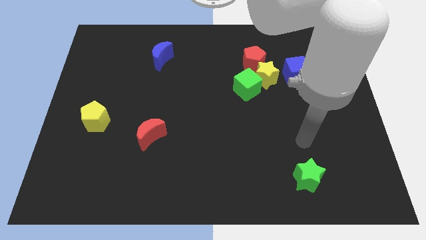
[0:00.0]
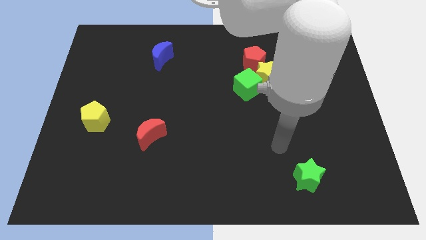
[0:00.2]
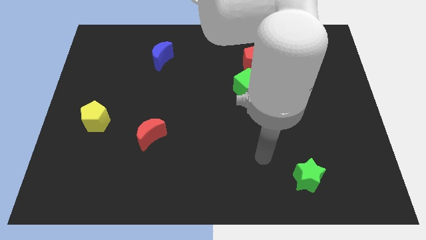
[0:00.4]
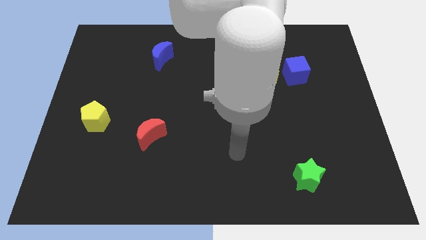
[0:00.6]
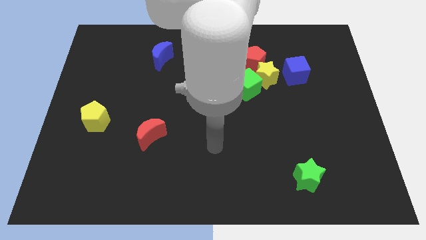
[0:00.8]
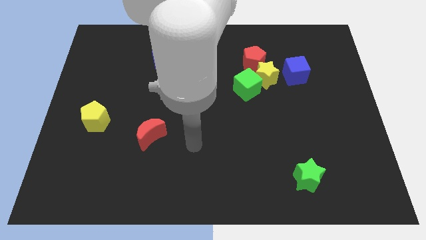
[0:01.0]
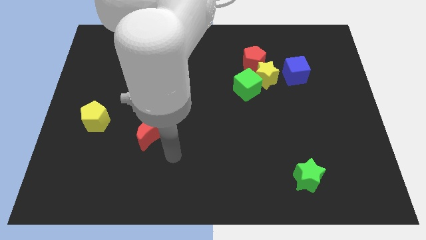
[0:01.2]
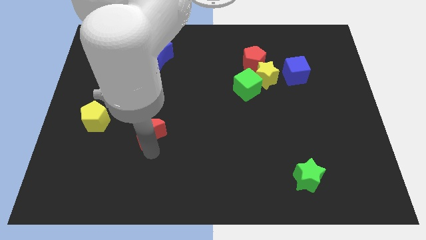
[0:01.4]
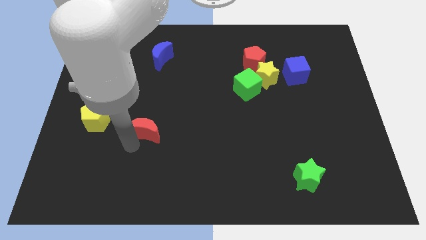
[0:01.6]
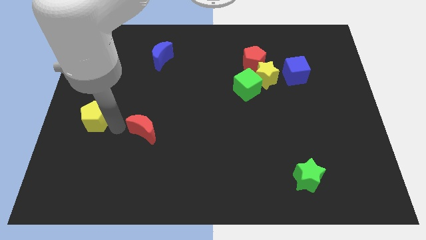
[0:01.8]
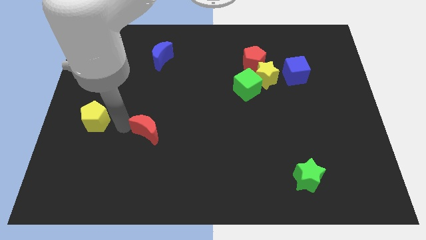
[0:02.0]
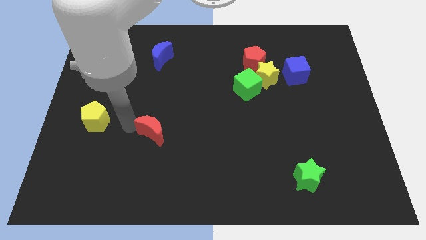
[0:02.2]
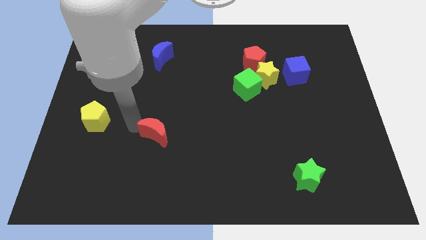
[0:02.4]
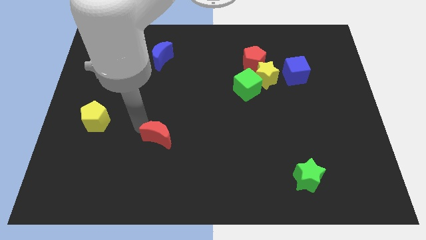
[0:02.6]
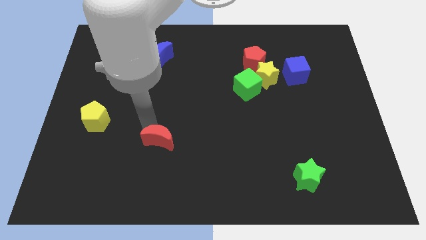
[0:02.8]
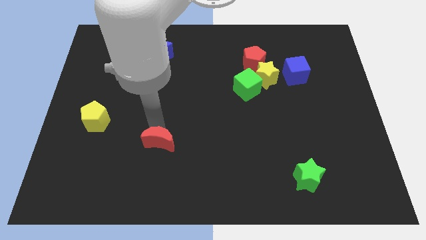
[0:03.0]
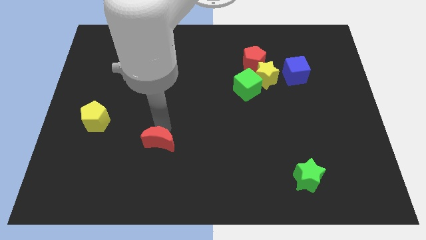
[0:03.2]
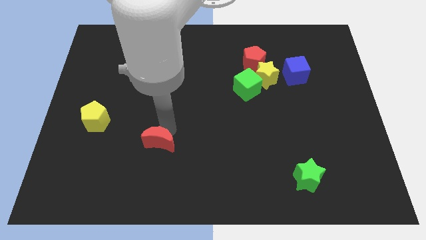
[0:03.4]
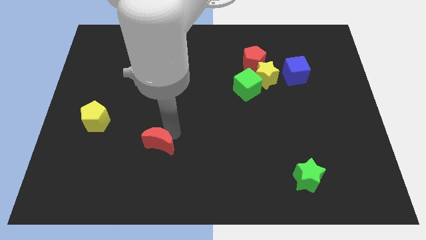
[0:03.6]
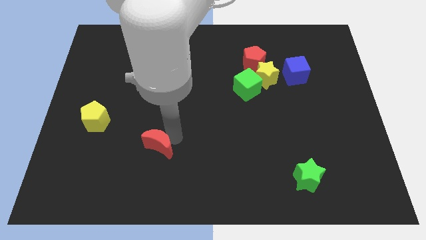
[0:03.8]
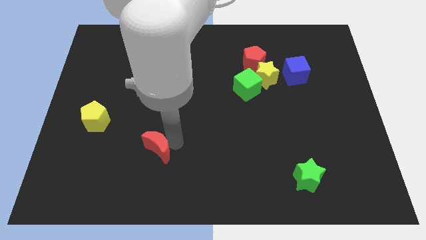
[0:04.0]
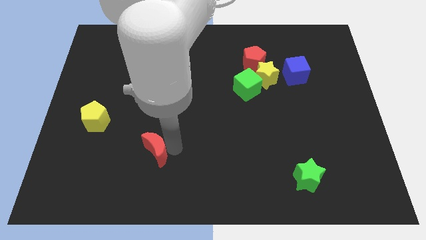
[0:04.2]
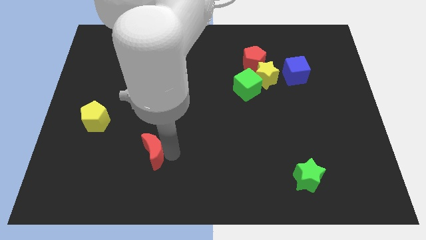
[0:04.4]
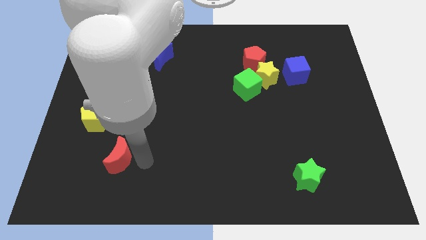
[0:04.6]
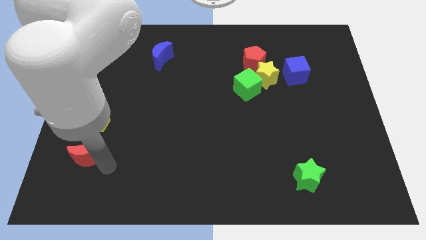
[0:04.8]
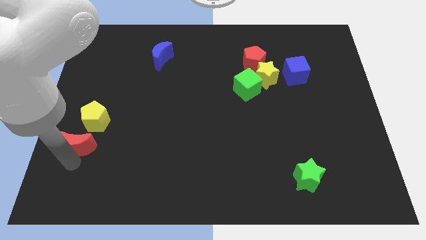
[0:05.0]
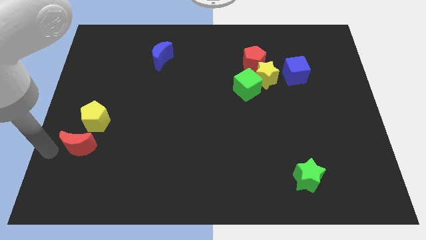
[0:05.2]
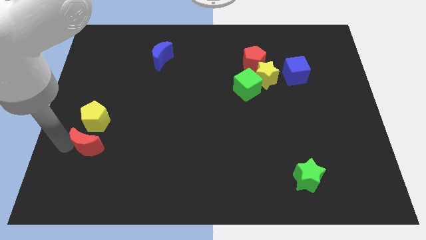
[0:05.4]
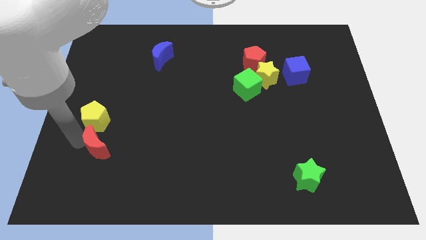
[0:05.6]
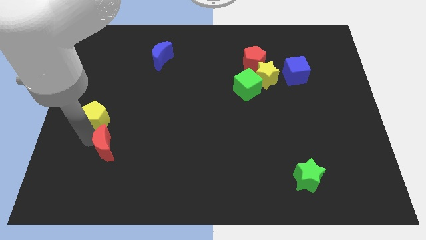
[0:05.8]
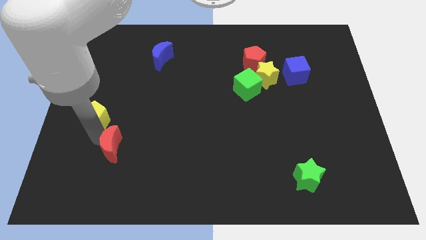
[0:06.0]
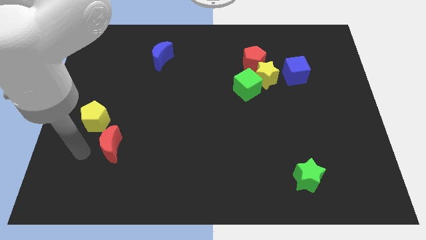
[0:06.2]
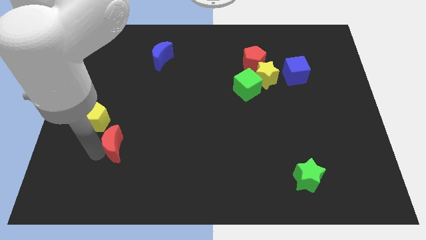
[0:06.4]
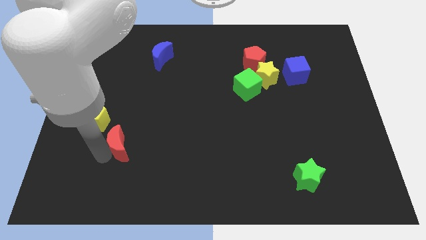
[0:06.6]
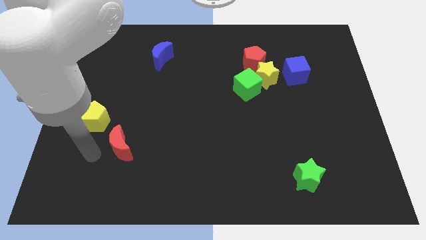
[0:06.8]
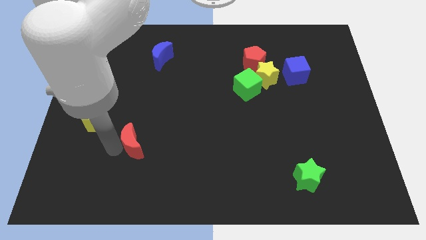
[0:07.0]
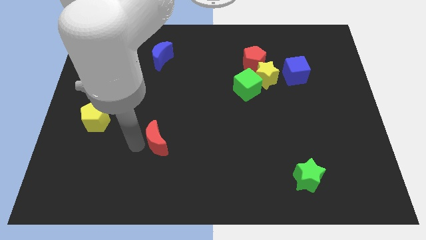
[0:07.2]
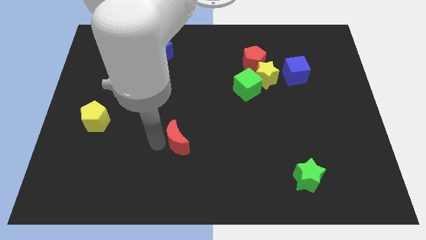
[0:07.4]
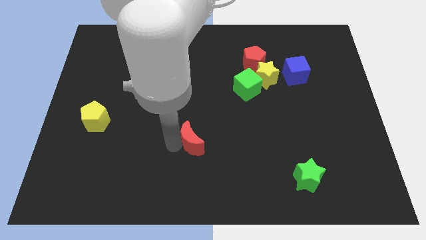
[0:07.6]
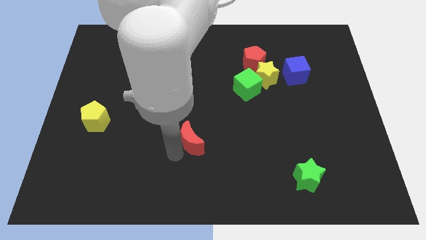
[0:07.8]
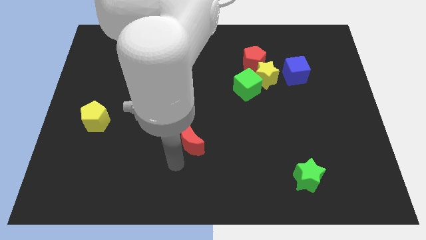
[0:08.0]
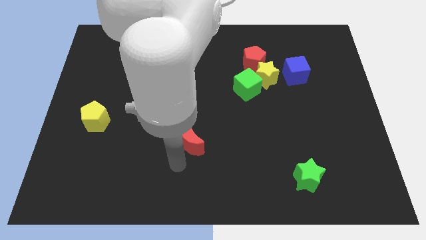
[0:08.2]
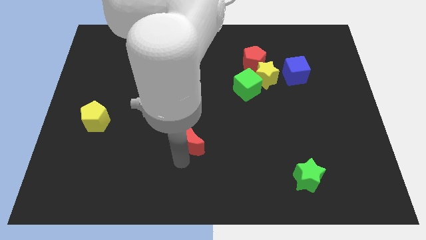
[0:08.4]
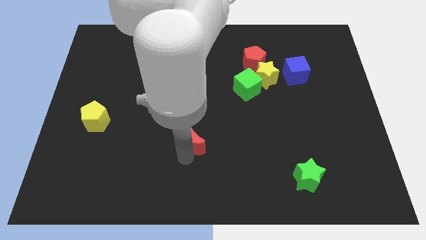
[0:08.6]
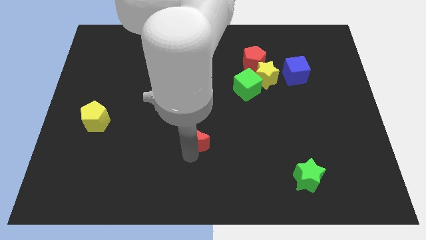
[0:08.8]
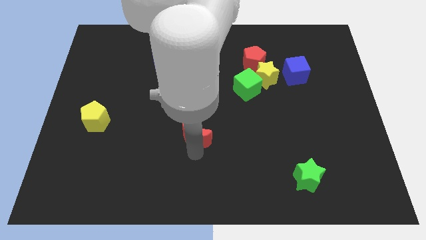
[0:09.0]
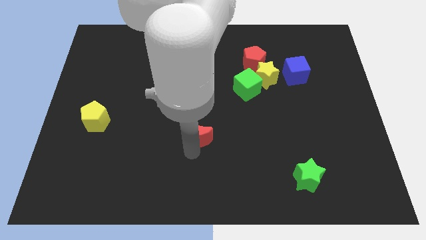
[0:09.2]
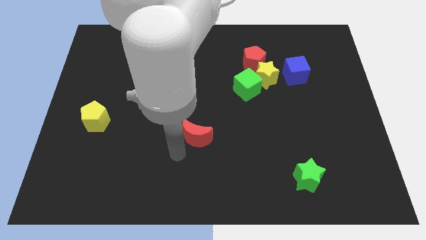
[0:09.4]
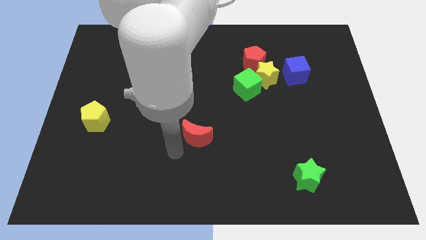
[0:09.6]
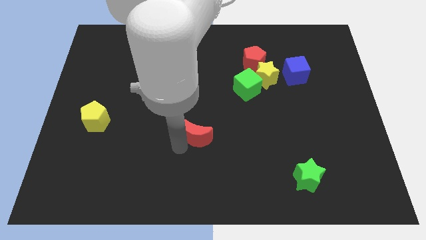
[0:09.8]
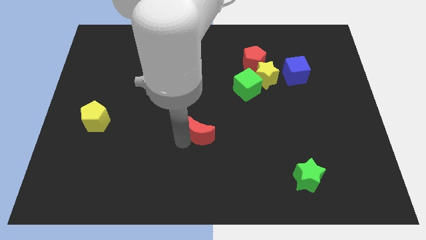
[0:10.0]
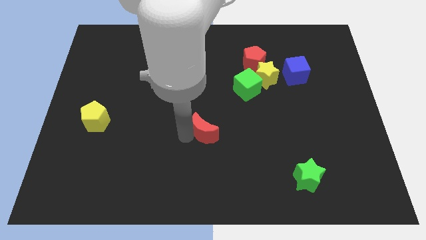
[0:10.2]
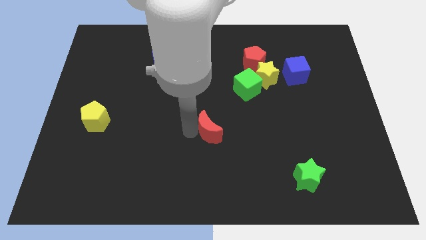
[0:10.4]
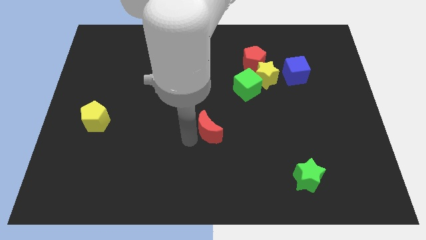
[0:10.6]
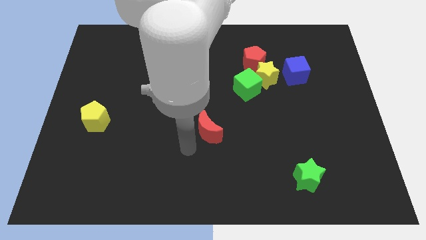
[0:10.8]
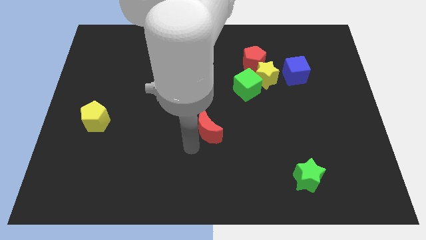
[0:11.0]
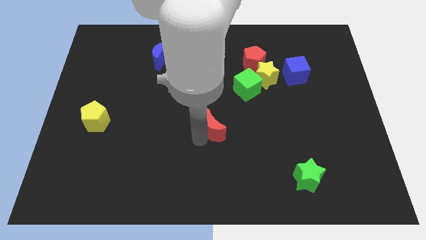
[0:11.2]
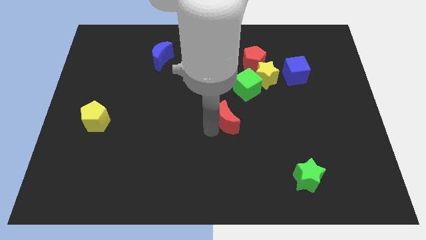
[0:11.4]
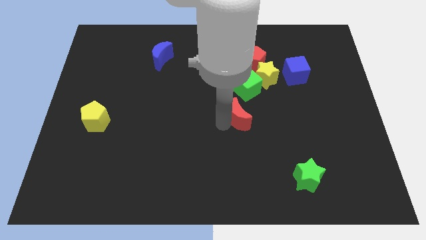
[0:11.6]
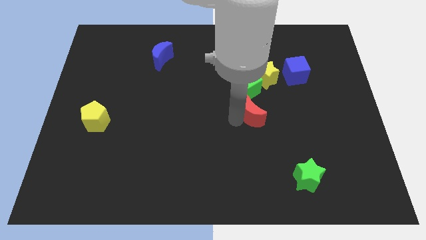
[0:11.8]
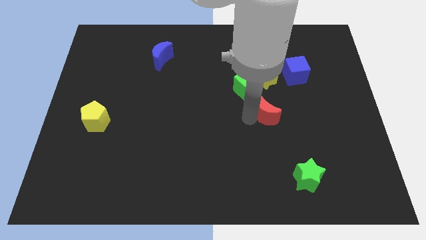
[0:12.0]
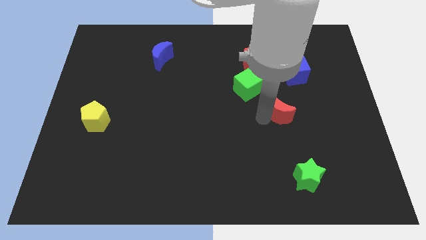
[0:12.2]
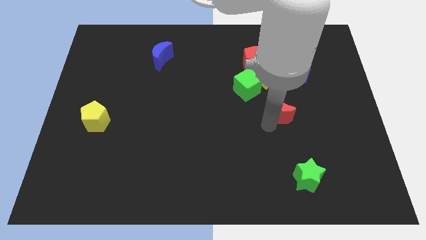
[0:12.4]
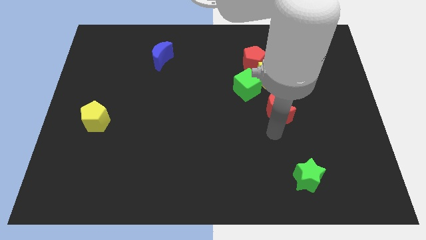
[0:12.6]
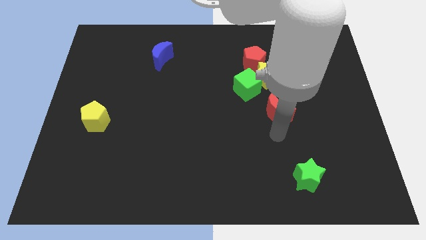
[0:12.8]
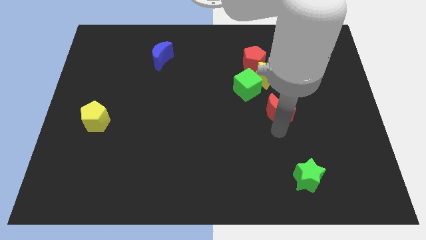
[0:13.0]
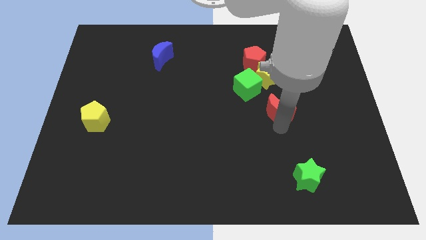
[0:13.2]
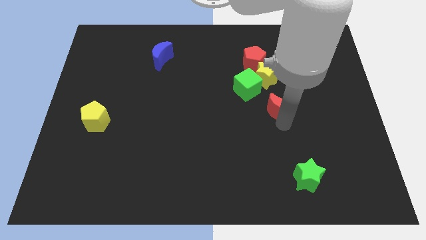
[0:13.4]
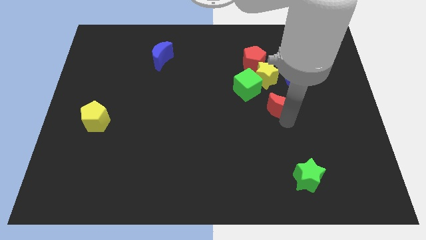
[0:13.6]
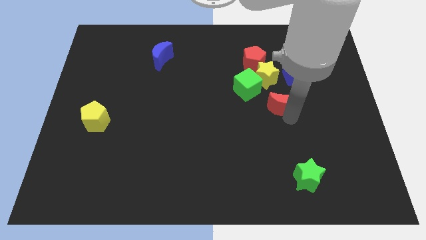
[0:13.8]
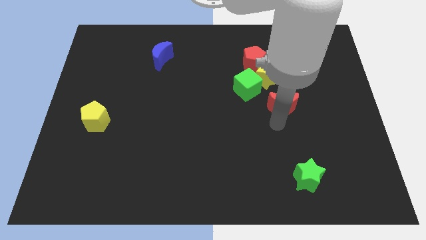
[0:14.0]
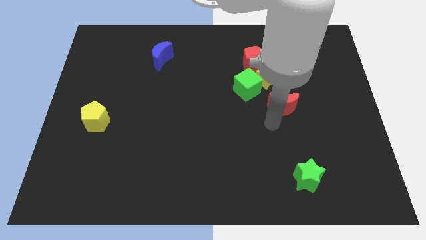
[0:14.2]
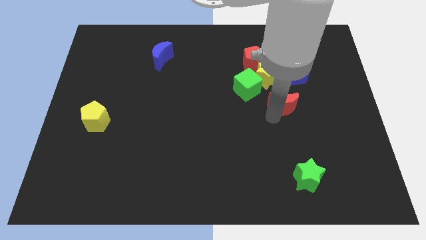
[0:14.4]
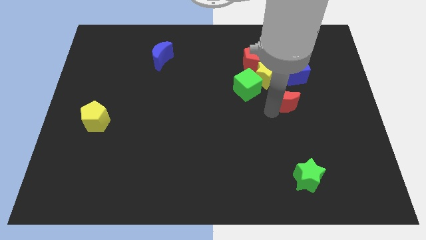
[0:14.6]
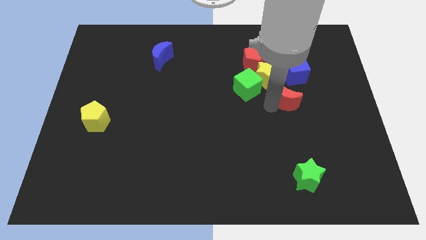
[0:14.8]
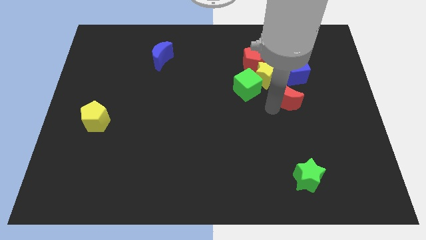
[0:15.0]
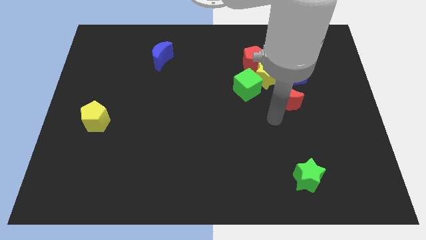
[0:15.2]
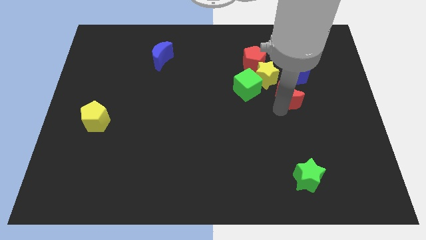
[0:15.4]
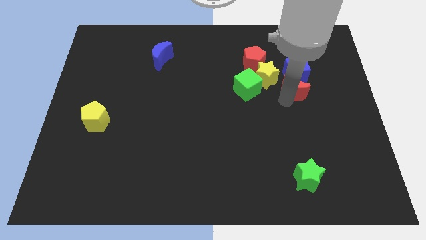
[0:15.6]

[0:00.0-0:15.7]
put the red moon to the blue cube
